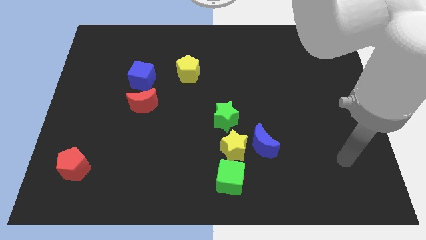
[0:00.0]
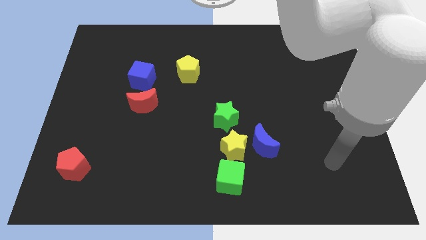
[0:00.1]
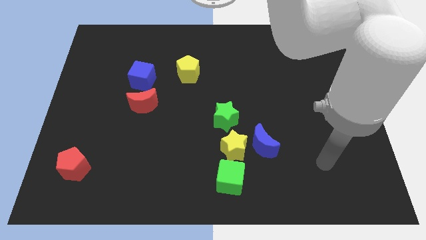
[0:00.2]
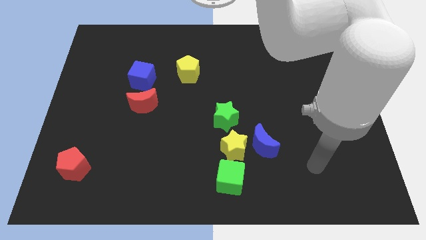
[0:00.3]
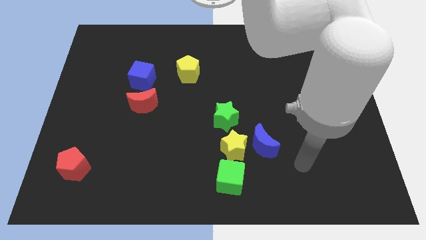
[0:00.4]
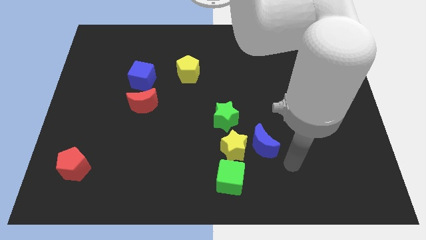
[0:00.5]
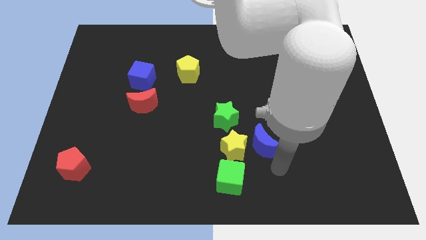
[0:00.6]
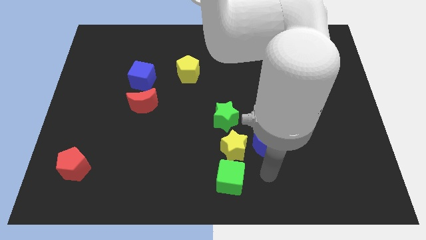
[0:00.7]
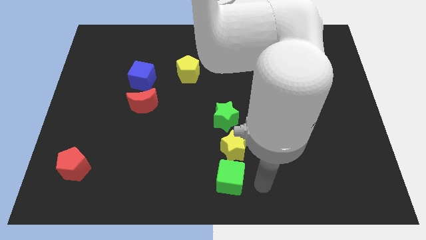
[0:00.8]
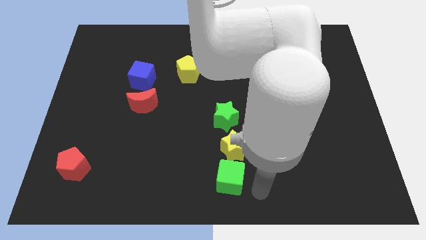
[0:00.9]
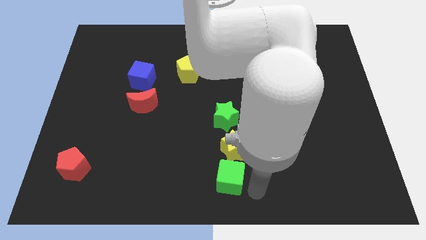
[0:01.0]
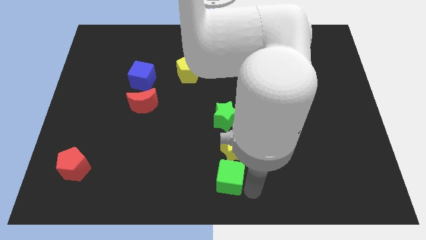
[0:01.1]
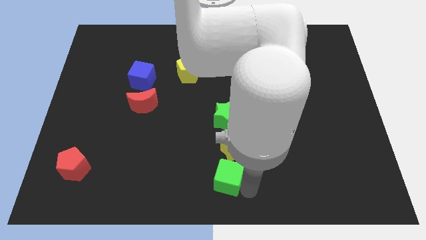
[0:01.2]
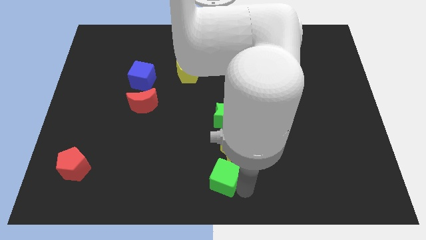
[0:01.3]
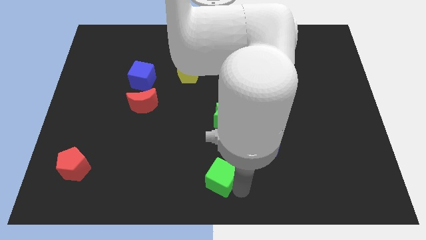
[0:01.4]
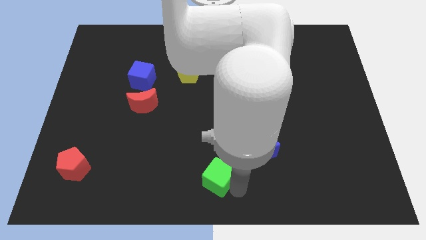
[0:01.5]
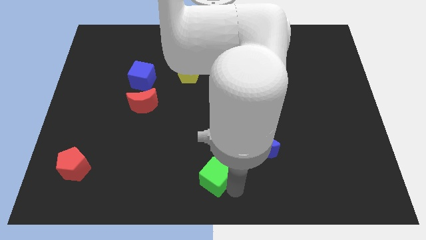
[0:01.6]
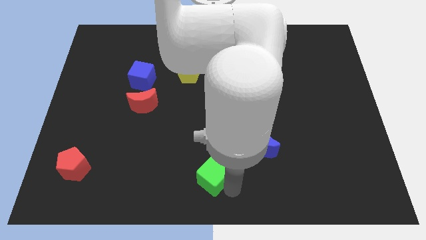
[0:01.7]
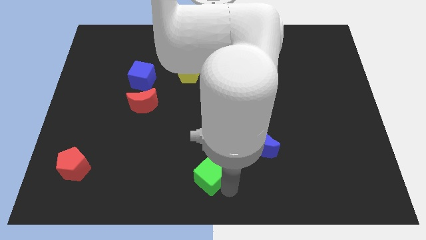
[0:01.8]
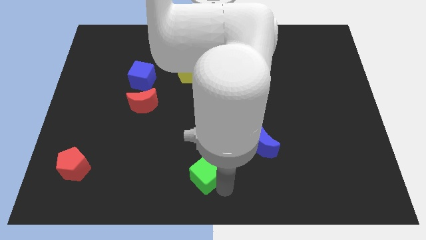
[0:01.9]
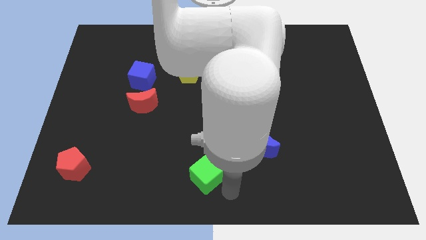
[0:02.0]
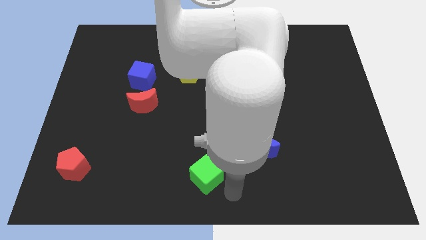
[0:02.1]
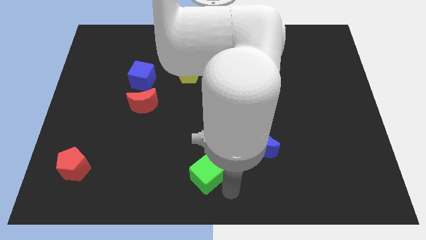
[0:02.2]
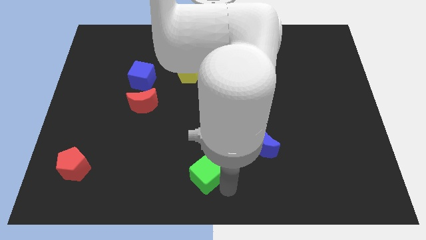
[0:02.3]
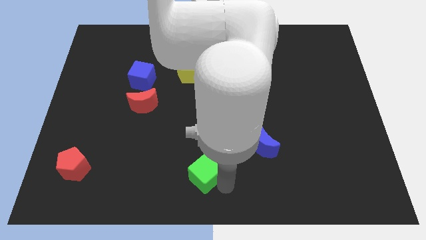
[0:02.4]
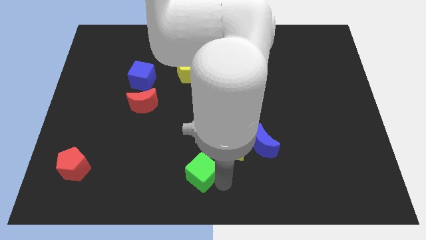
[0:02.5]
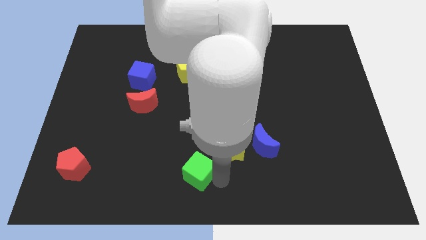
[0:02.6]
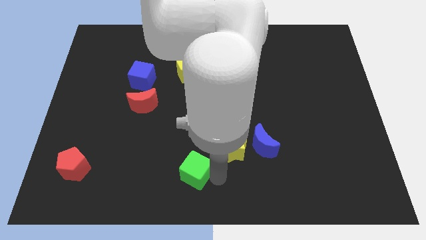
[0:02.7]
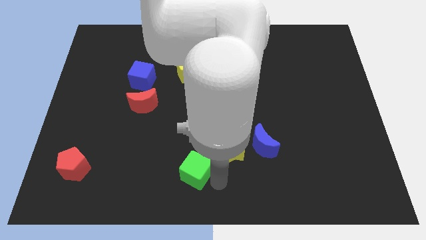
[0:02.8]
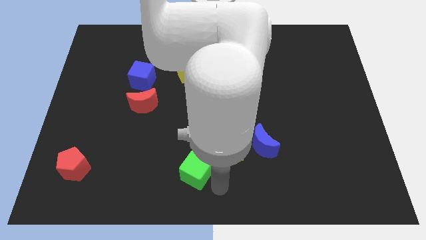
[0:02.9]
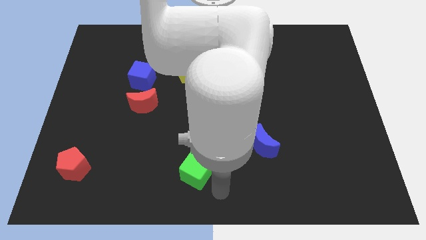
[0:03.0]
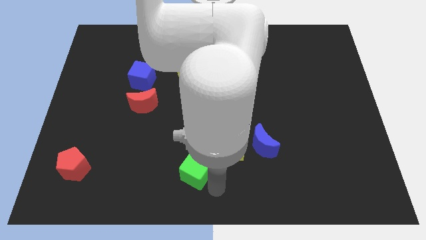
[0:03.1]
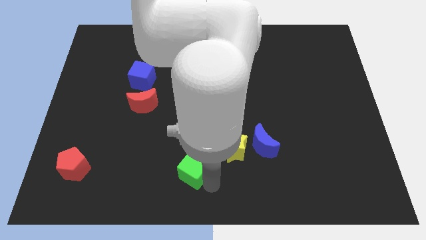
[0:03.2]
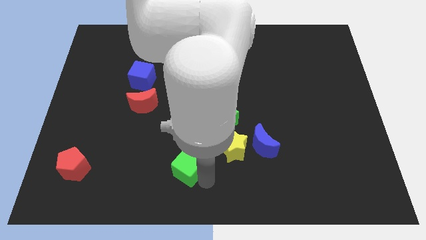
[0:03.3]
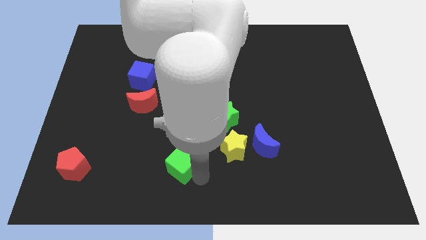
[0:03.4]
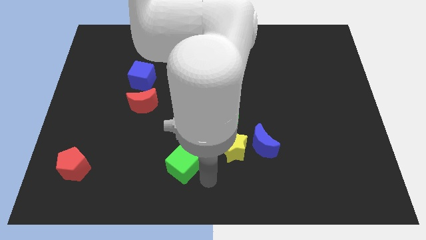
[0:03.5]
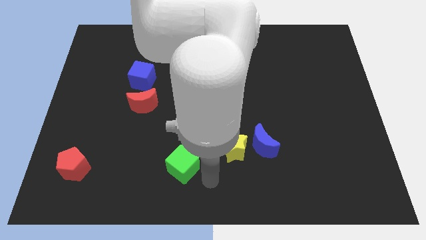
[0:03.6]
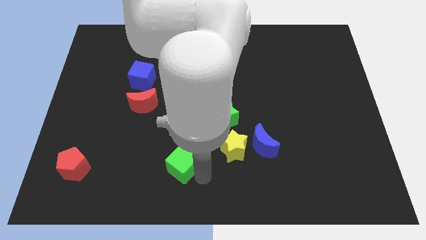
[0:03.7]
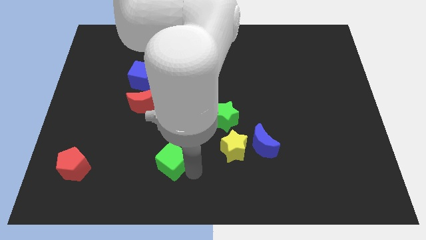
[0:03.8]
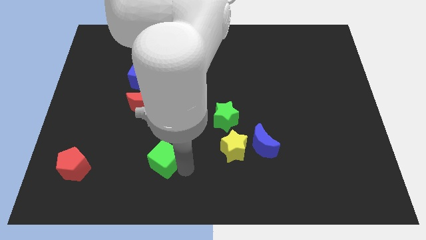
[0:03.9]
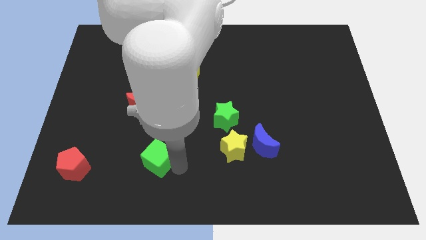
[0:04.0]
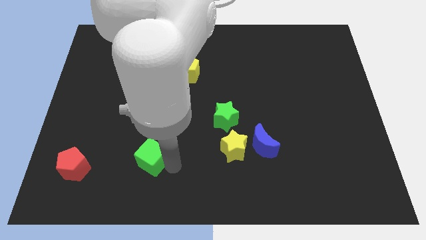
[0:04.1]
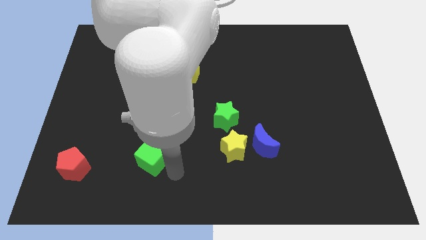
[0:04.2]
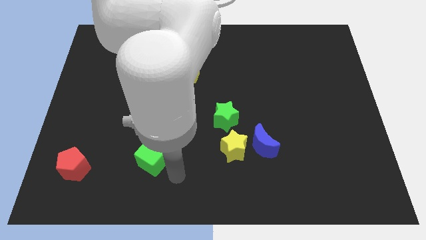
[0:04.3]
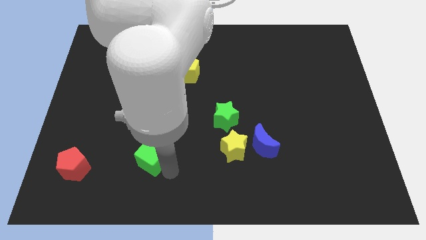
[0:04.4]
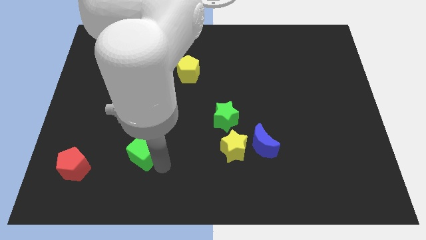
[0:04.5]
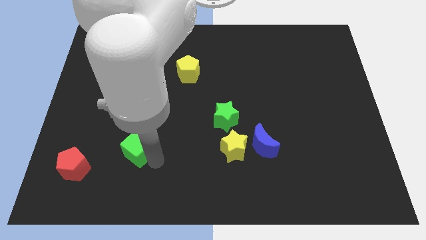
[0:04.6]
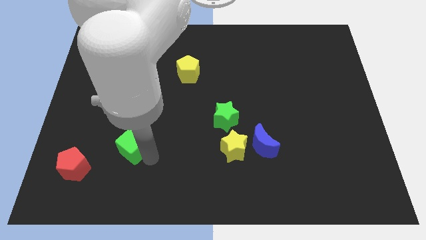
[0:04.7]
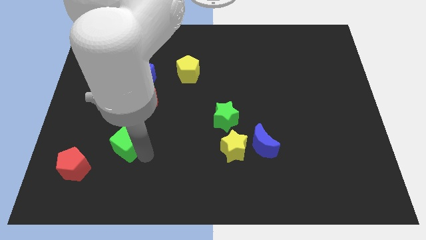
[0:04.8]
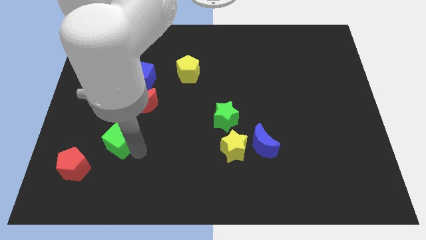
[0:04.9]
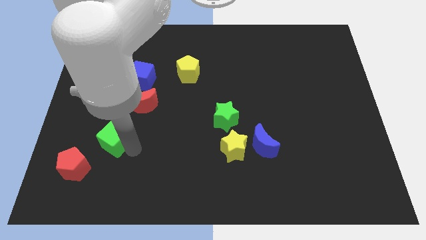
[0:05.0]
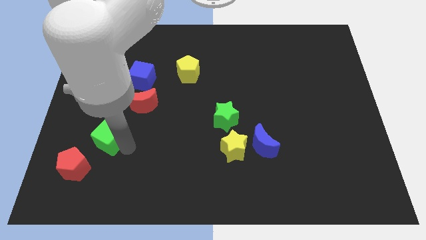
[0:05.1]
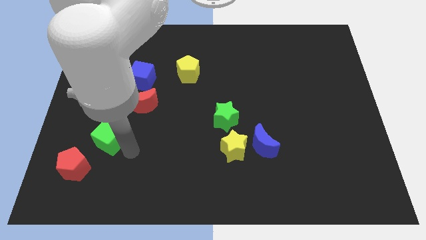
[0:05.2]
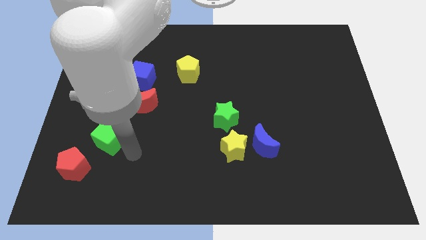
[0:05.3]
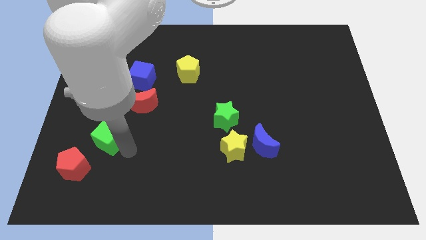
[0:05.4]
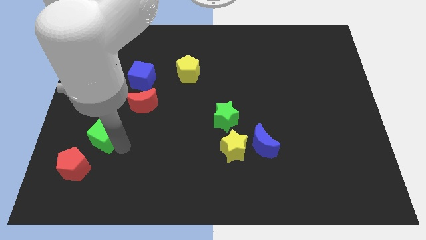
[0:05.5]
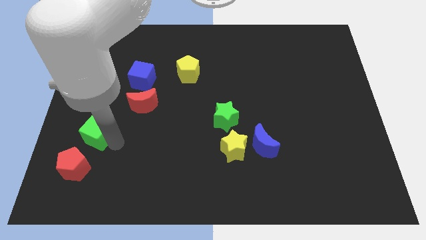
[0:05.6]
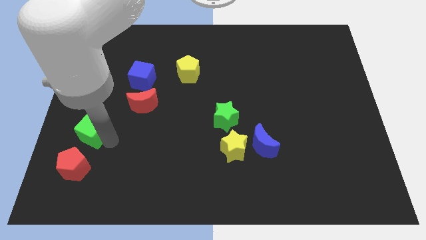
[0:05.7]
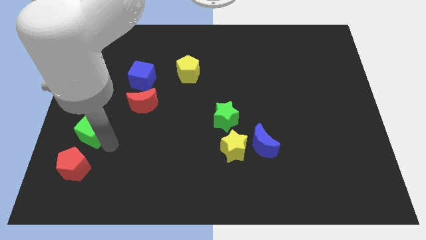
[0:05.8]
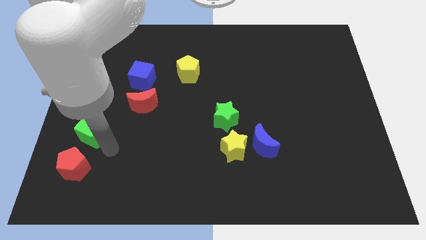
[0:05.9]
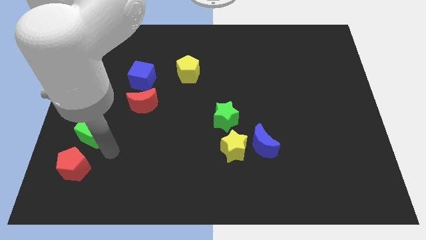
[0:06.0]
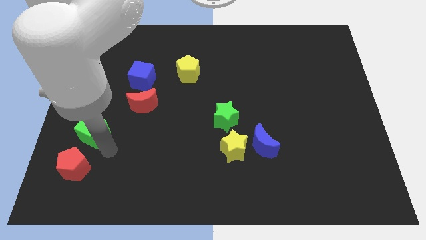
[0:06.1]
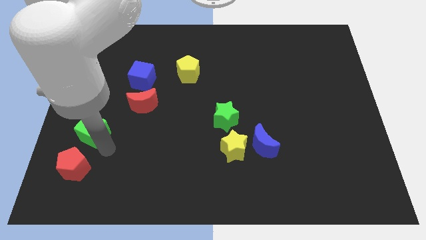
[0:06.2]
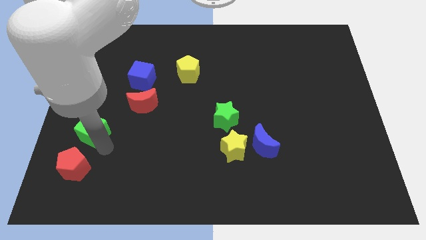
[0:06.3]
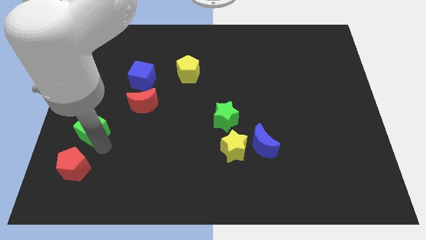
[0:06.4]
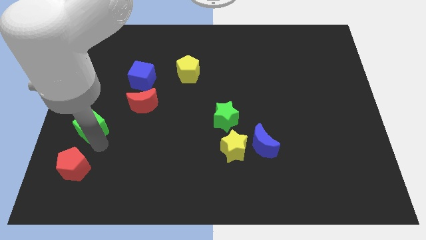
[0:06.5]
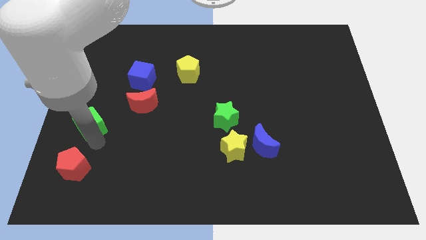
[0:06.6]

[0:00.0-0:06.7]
slide the green cube to the center left

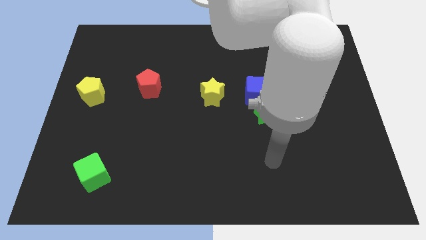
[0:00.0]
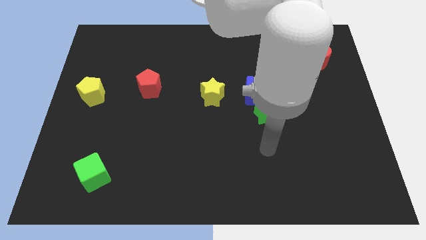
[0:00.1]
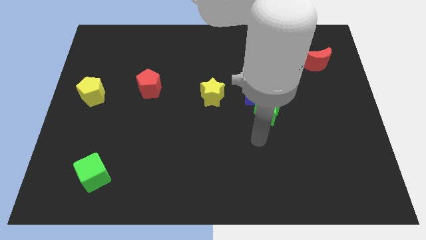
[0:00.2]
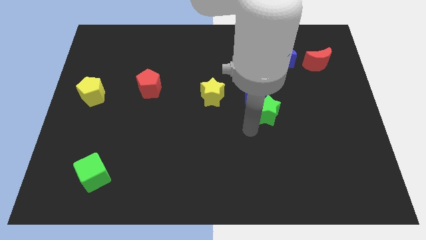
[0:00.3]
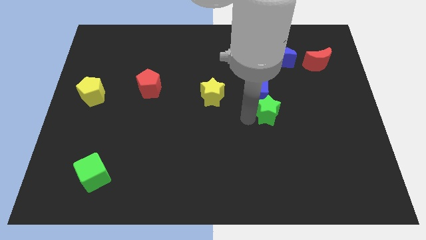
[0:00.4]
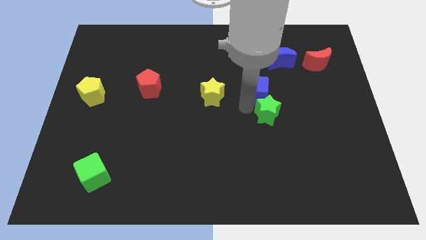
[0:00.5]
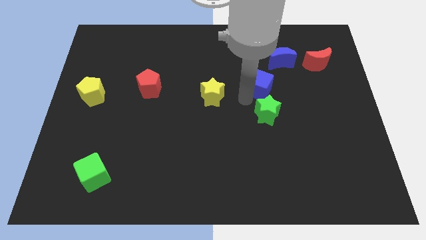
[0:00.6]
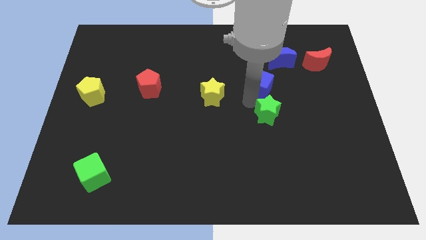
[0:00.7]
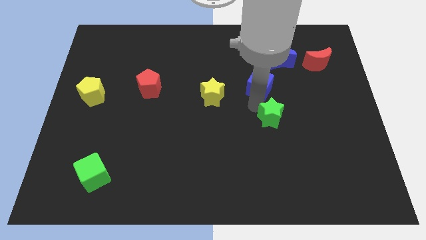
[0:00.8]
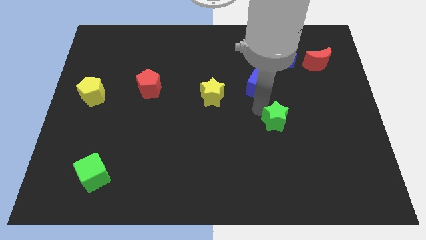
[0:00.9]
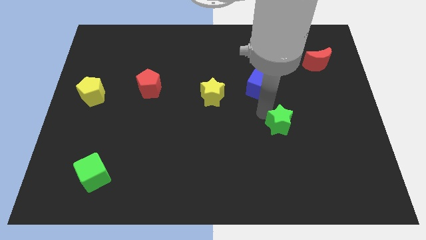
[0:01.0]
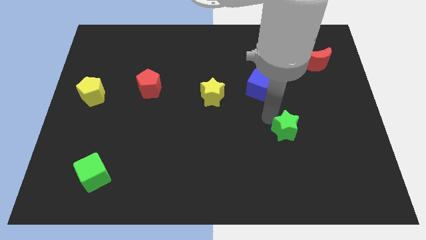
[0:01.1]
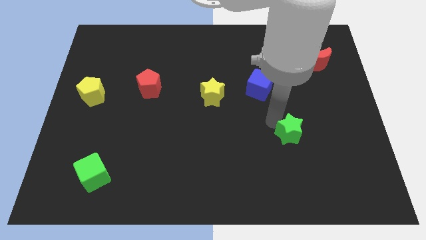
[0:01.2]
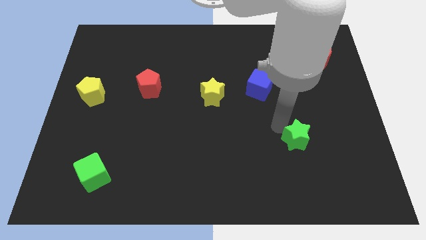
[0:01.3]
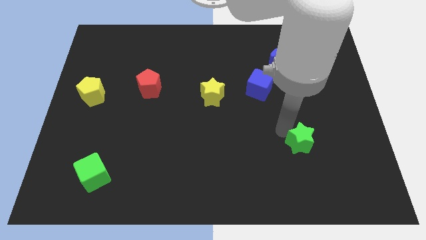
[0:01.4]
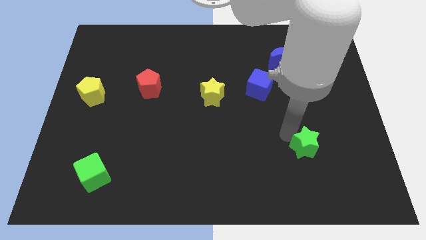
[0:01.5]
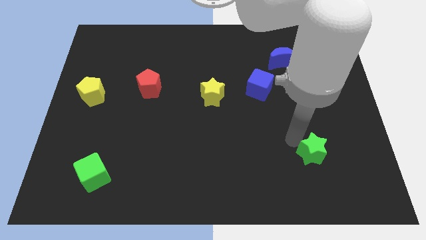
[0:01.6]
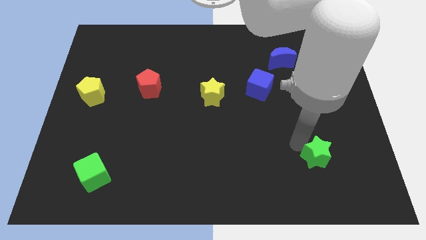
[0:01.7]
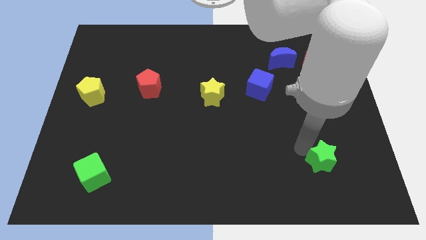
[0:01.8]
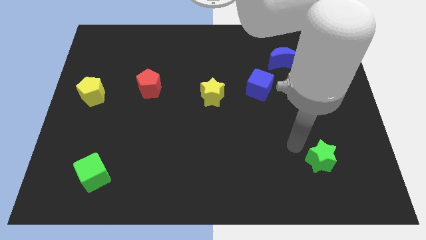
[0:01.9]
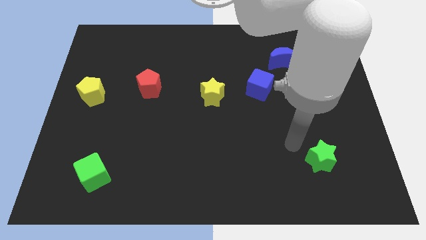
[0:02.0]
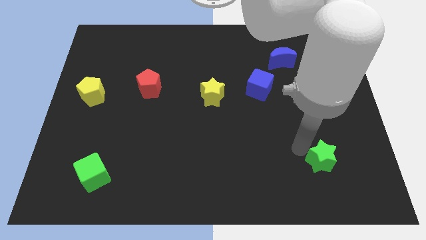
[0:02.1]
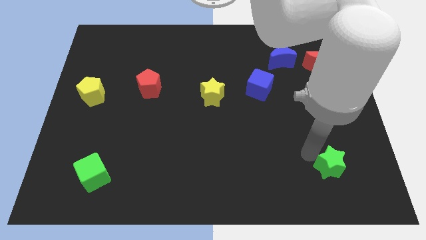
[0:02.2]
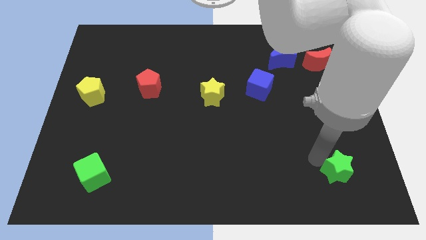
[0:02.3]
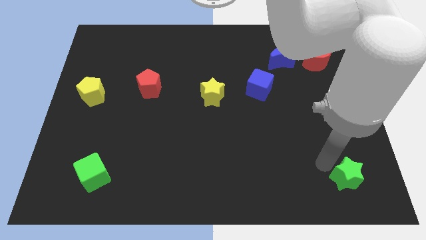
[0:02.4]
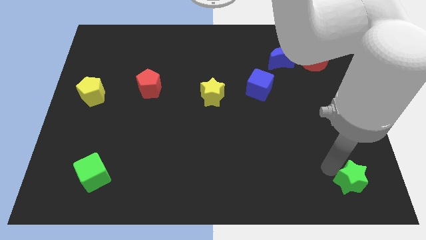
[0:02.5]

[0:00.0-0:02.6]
slide the green star to the bottom right corner
